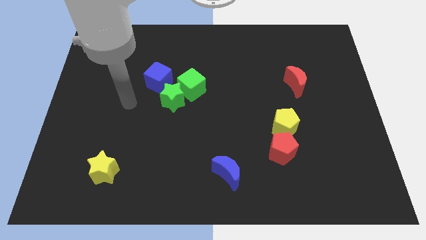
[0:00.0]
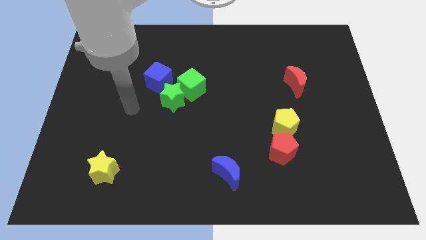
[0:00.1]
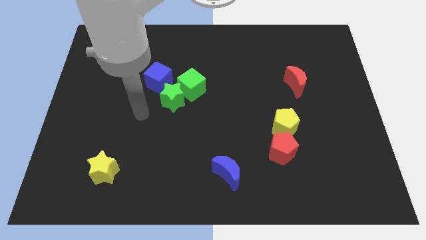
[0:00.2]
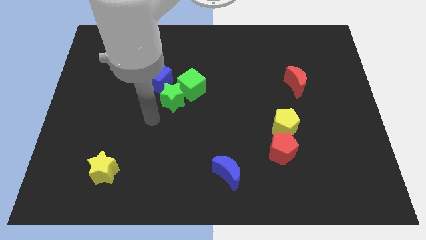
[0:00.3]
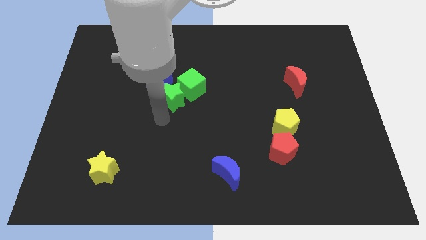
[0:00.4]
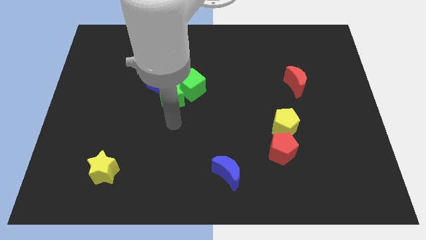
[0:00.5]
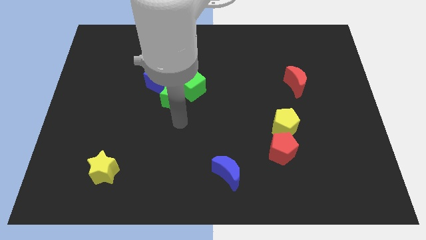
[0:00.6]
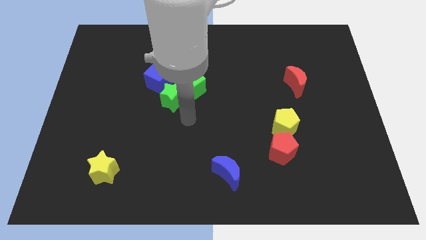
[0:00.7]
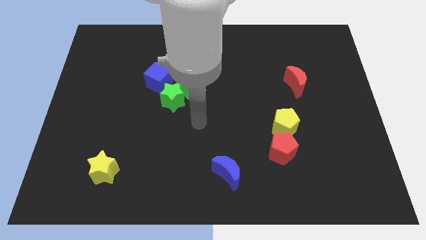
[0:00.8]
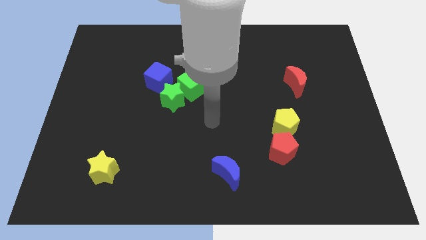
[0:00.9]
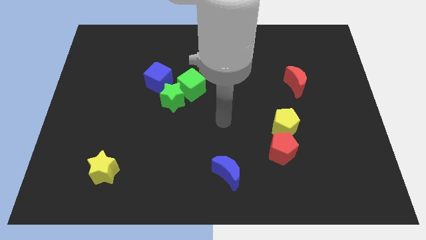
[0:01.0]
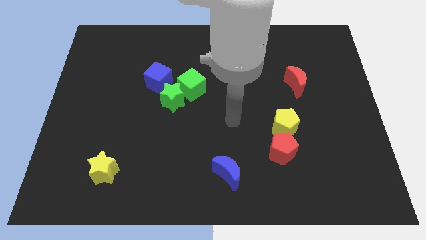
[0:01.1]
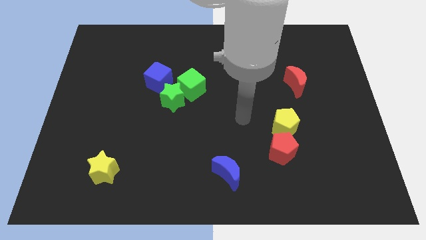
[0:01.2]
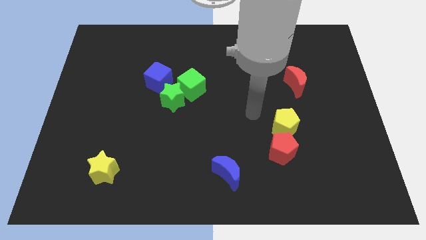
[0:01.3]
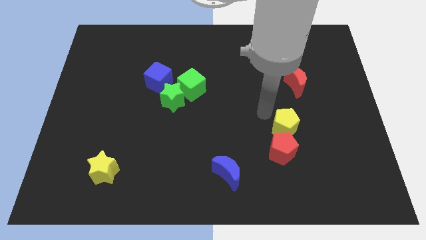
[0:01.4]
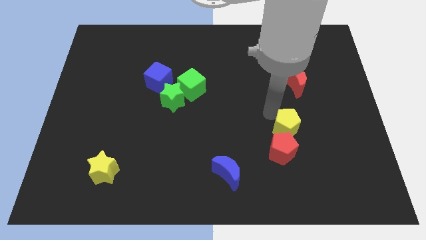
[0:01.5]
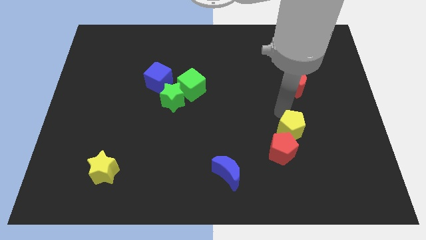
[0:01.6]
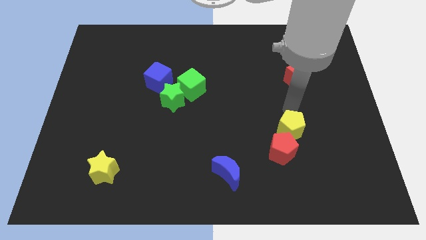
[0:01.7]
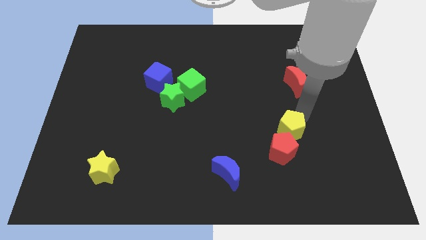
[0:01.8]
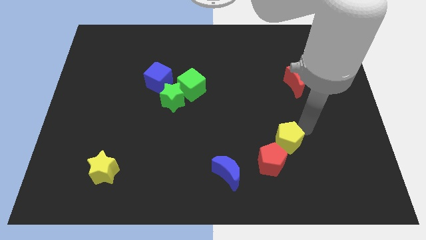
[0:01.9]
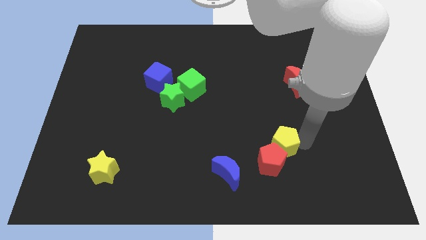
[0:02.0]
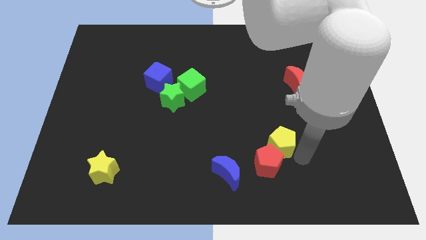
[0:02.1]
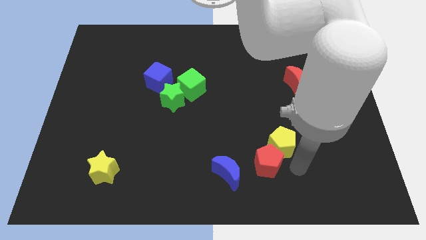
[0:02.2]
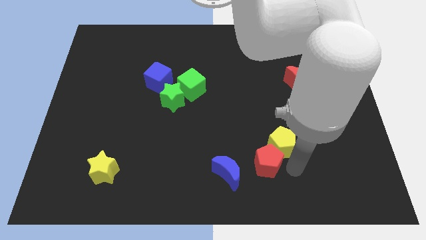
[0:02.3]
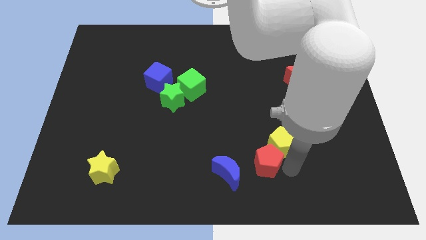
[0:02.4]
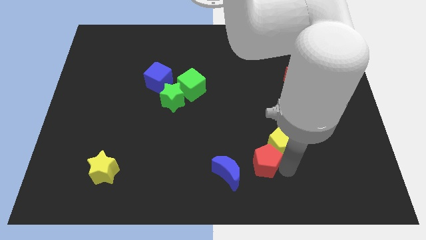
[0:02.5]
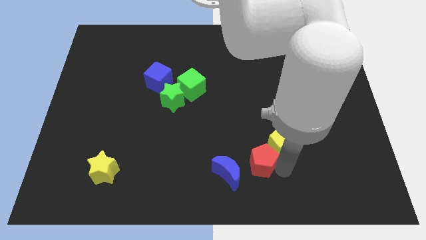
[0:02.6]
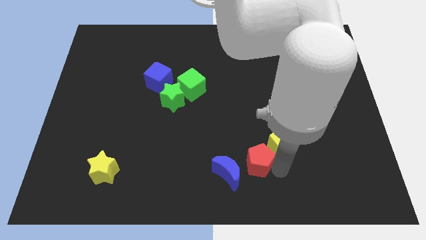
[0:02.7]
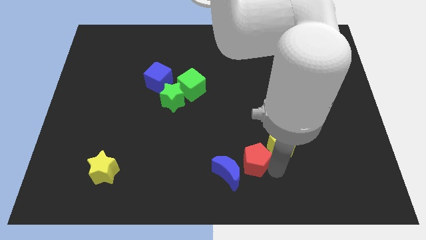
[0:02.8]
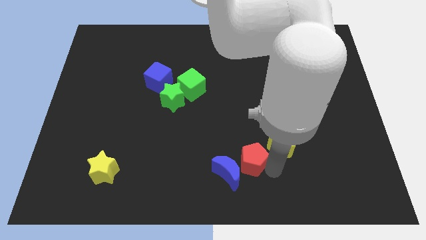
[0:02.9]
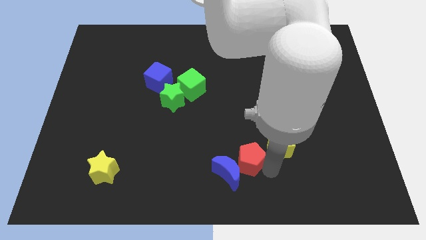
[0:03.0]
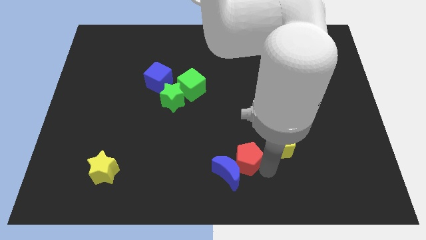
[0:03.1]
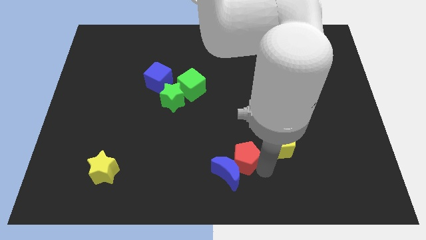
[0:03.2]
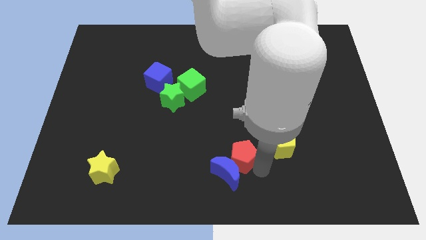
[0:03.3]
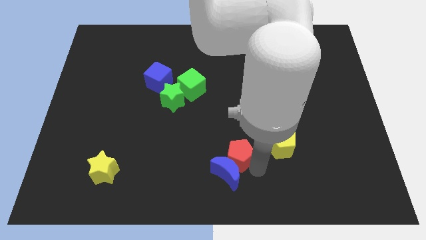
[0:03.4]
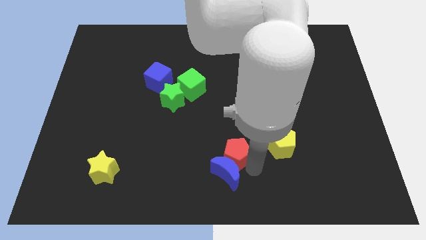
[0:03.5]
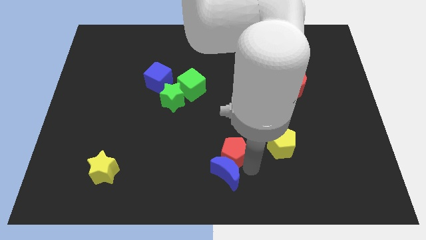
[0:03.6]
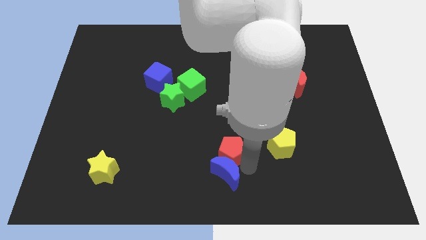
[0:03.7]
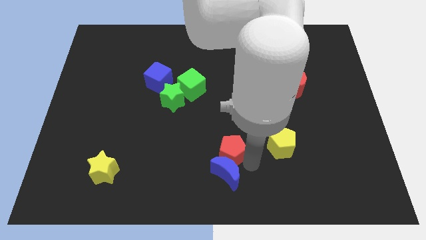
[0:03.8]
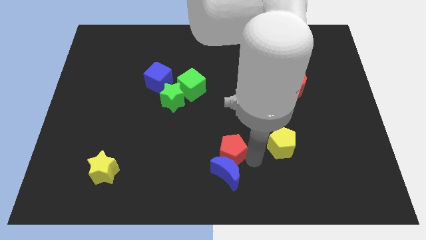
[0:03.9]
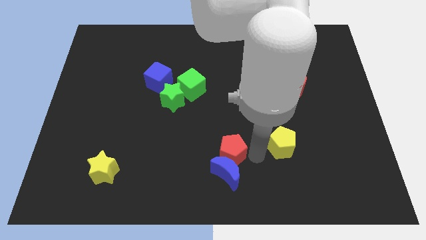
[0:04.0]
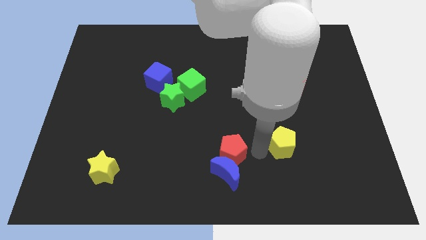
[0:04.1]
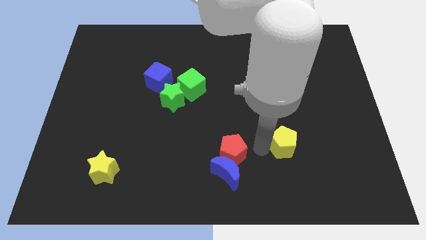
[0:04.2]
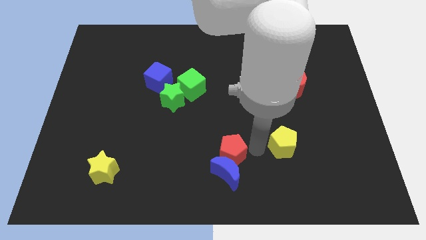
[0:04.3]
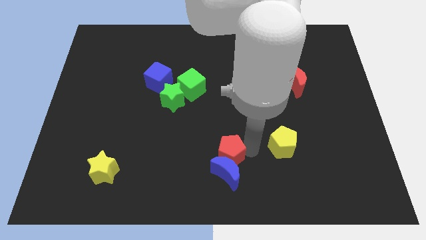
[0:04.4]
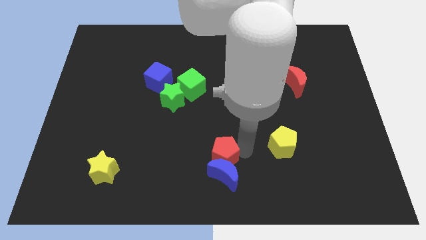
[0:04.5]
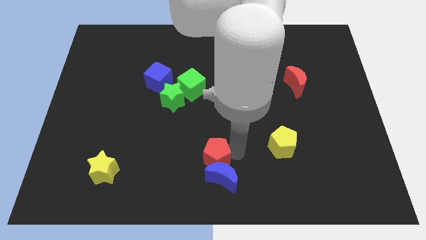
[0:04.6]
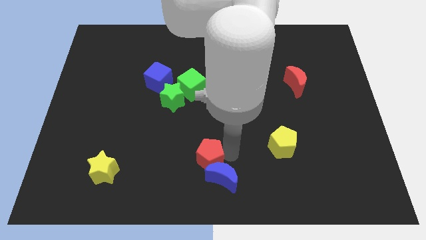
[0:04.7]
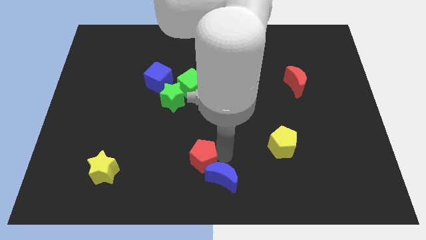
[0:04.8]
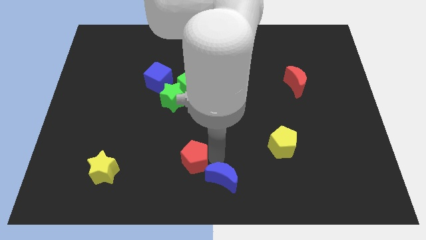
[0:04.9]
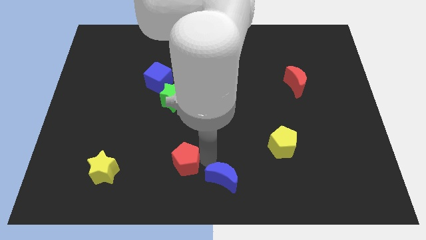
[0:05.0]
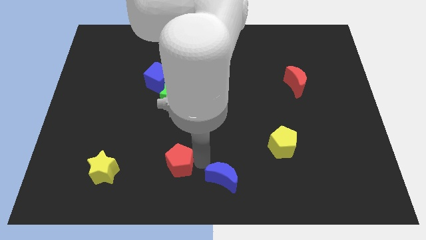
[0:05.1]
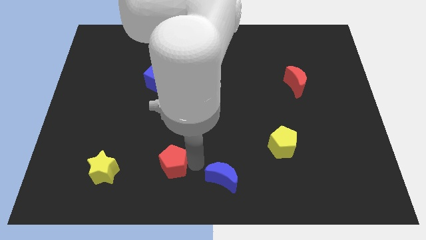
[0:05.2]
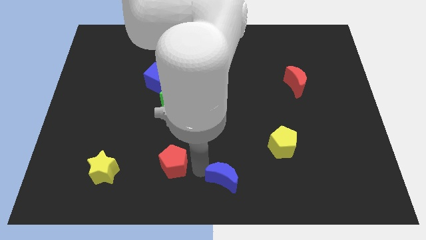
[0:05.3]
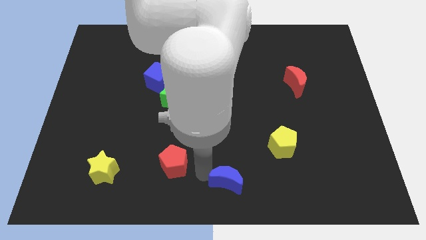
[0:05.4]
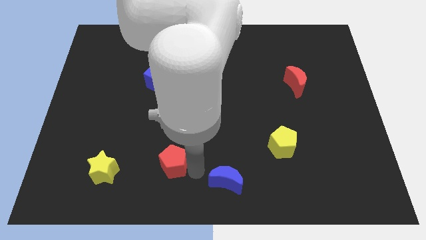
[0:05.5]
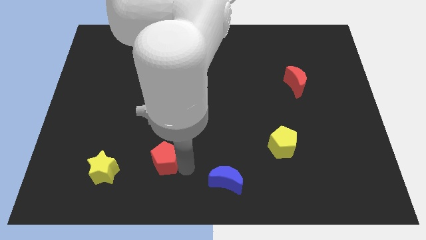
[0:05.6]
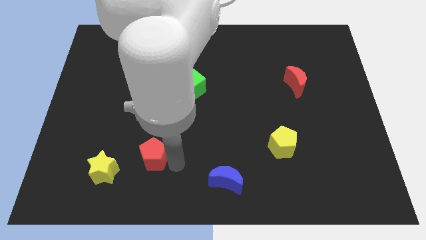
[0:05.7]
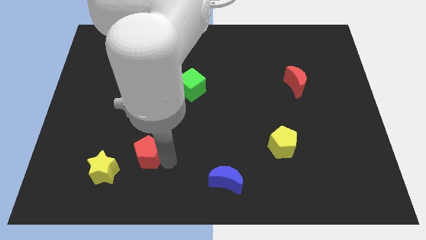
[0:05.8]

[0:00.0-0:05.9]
push the red pentagon to the top right side of the yellow star

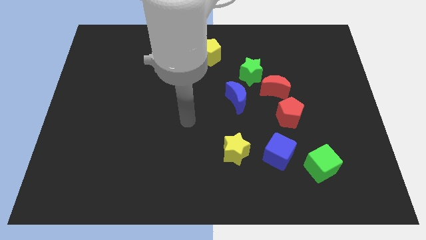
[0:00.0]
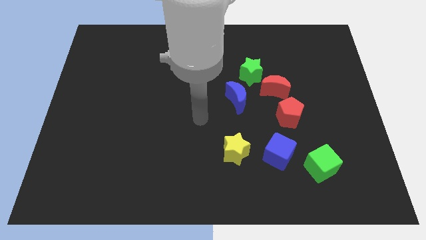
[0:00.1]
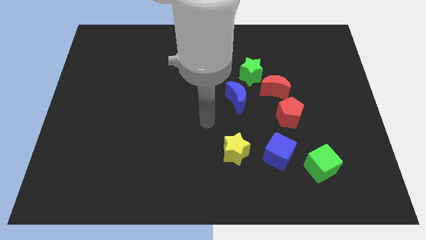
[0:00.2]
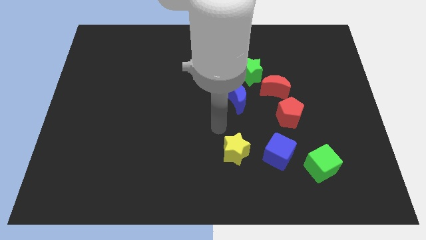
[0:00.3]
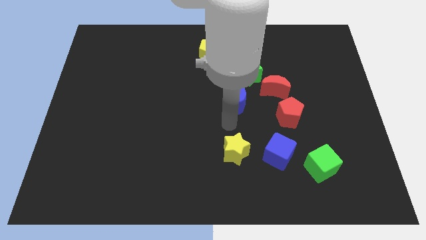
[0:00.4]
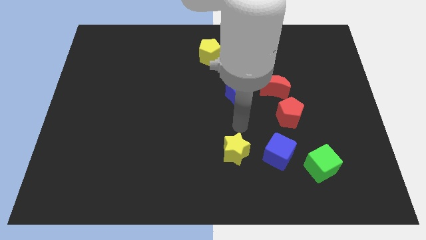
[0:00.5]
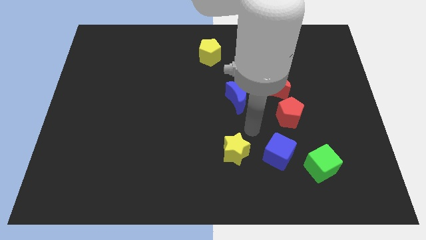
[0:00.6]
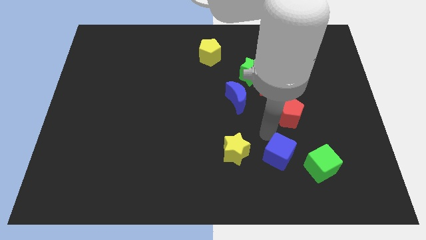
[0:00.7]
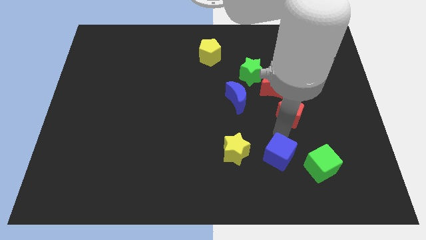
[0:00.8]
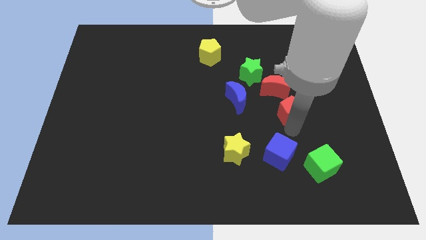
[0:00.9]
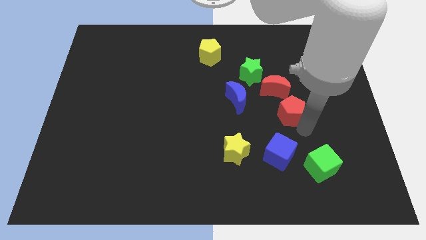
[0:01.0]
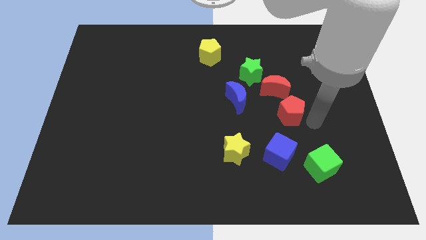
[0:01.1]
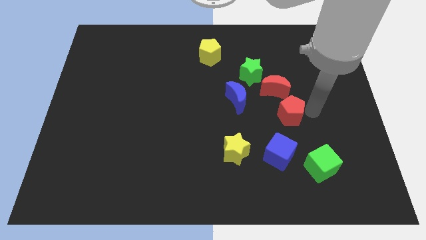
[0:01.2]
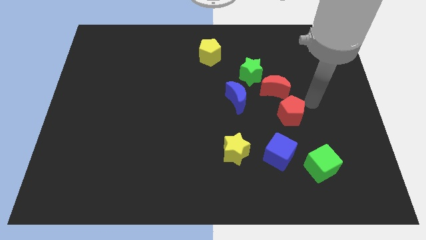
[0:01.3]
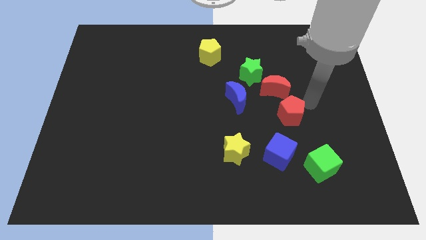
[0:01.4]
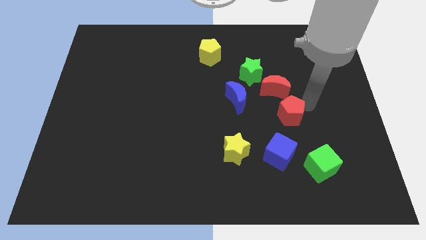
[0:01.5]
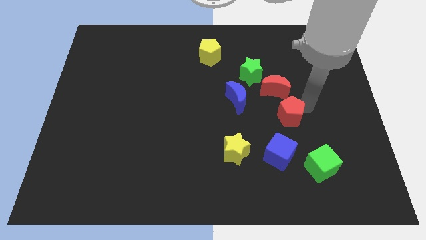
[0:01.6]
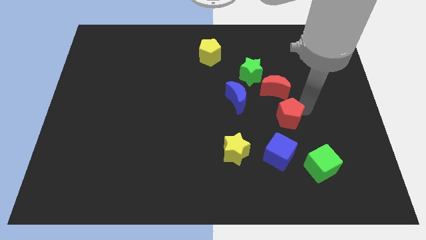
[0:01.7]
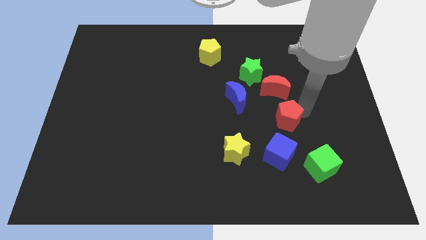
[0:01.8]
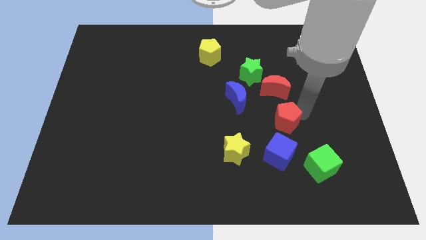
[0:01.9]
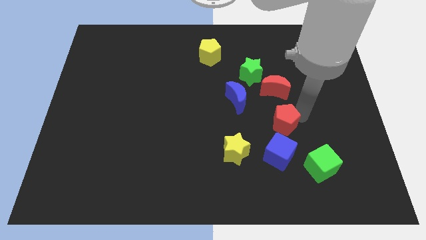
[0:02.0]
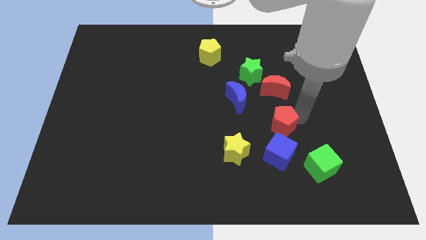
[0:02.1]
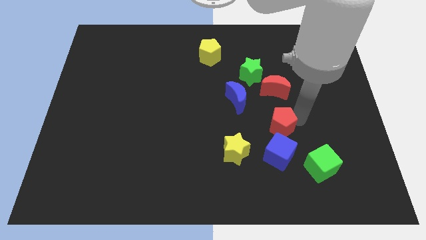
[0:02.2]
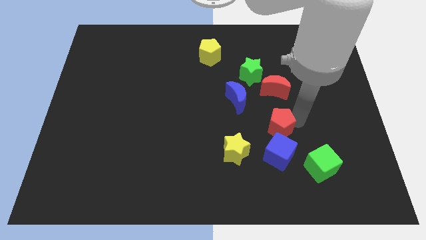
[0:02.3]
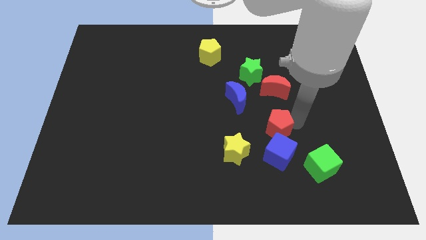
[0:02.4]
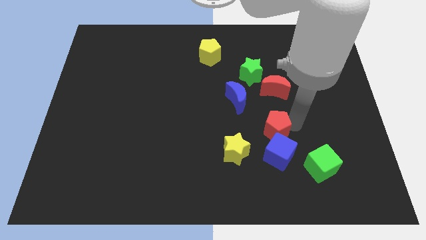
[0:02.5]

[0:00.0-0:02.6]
push the red pentagon to the top left of the blue cube
